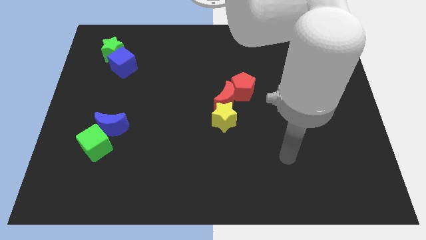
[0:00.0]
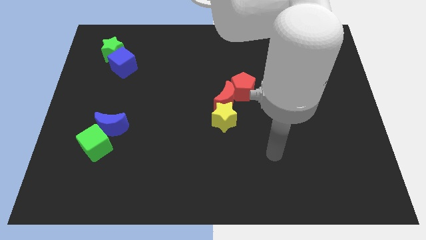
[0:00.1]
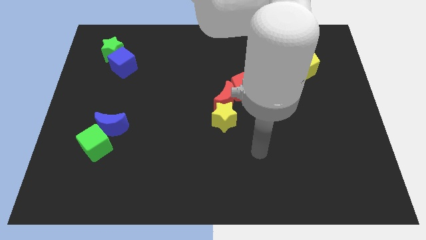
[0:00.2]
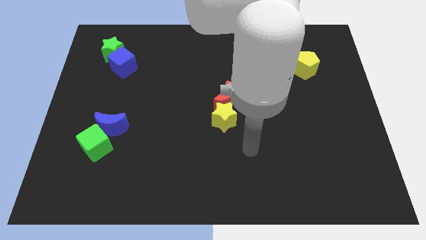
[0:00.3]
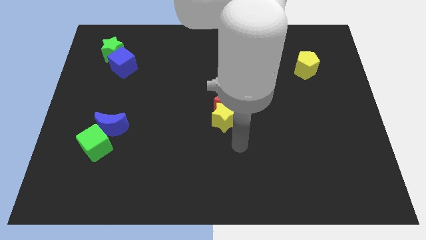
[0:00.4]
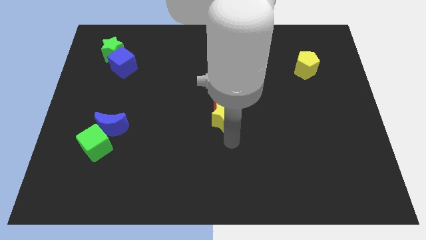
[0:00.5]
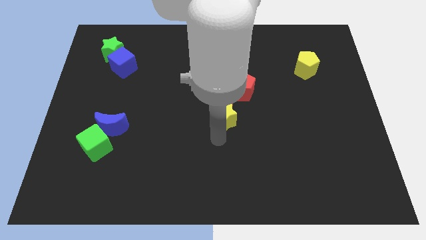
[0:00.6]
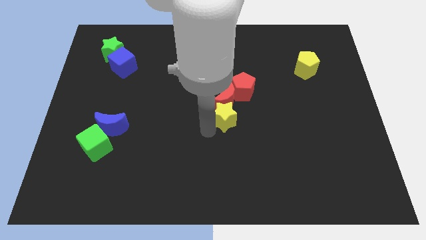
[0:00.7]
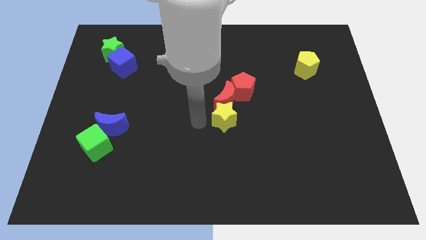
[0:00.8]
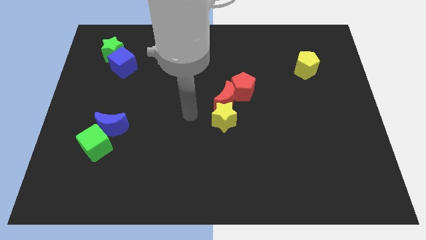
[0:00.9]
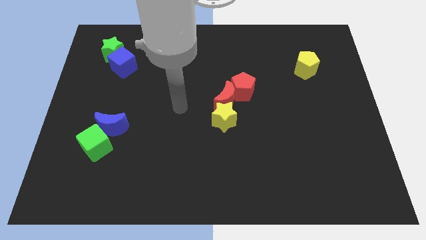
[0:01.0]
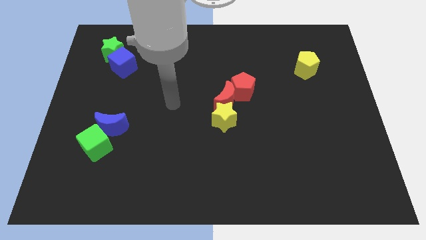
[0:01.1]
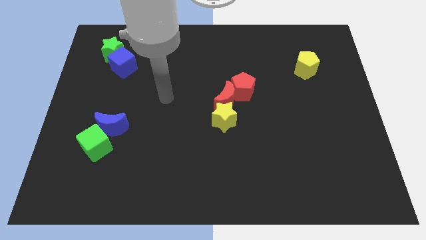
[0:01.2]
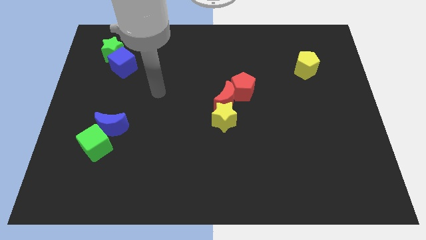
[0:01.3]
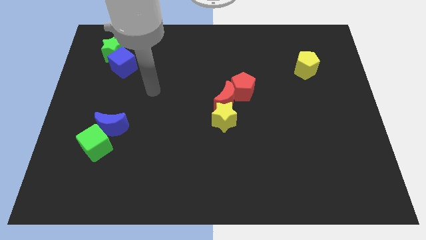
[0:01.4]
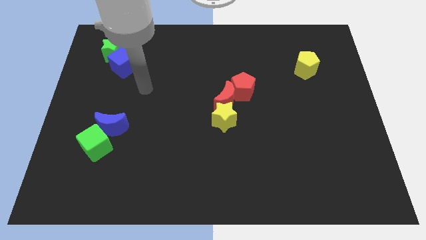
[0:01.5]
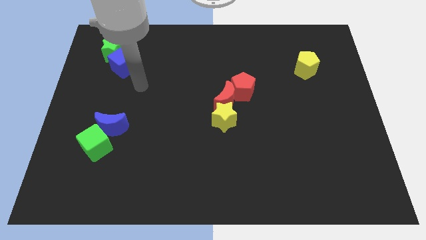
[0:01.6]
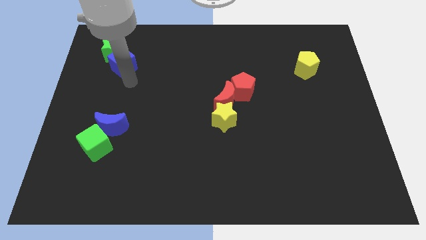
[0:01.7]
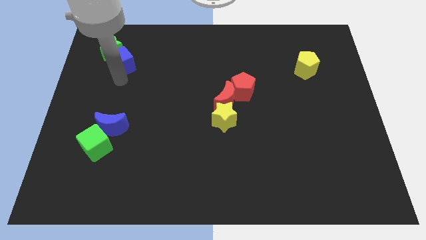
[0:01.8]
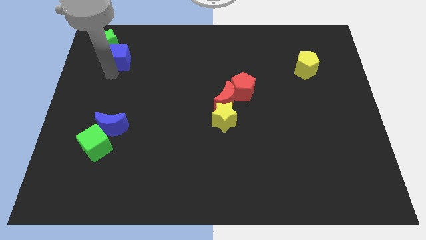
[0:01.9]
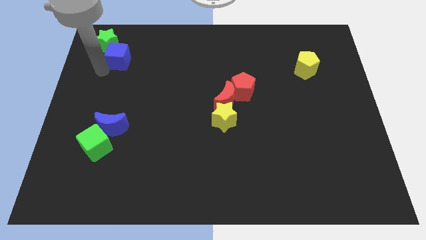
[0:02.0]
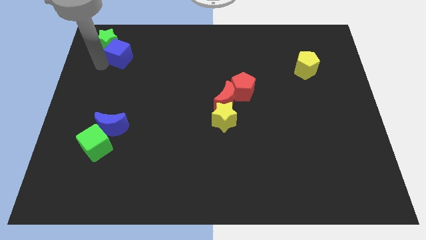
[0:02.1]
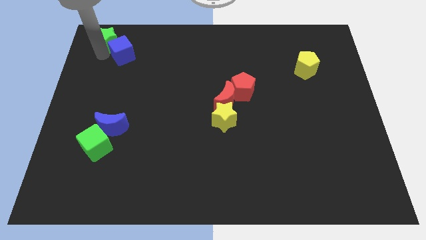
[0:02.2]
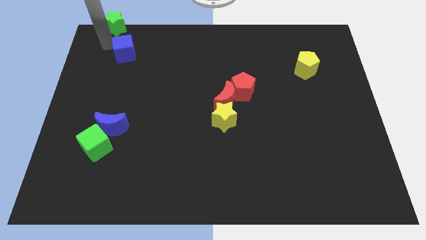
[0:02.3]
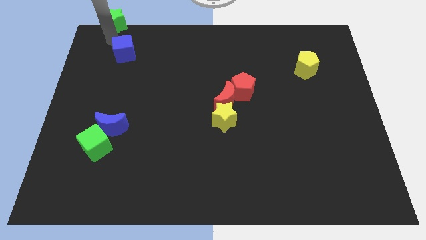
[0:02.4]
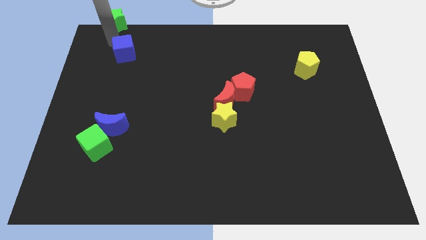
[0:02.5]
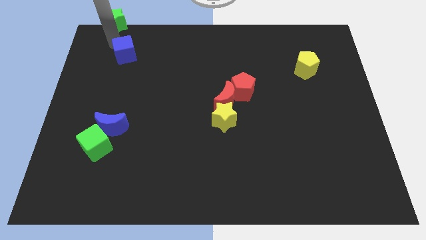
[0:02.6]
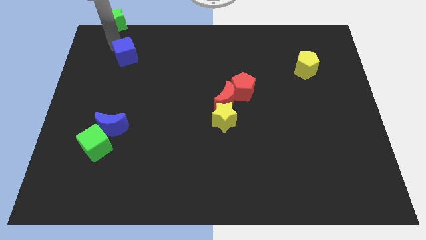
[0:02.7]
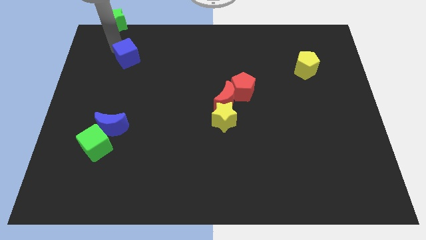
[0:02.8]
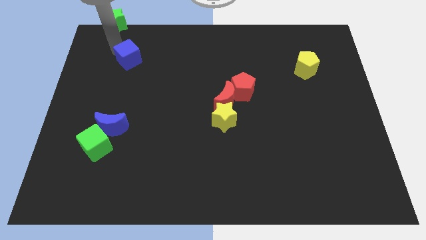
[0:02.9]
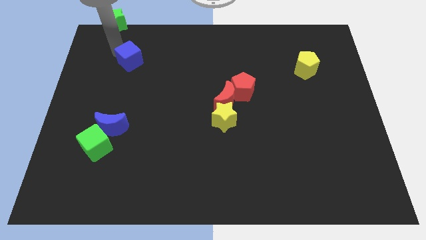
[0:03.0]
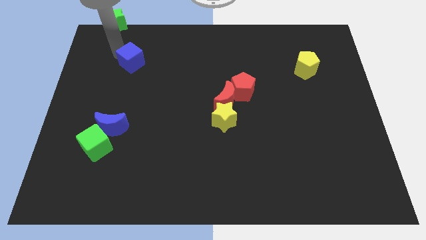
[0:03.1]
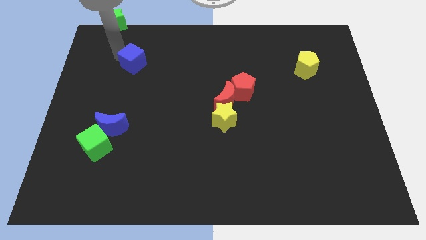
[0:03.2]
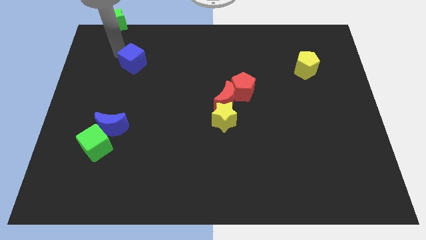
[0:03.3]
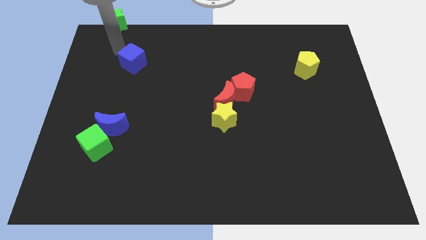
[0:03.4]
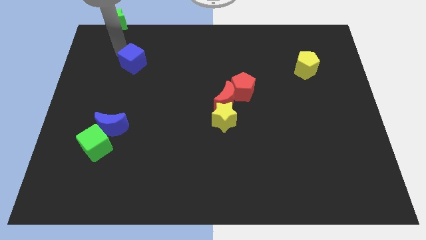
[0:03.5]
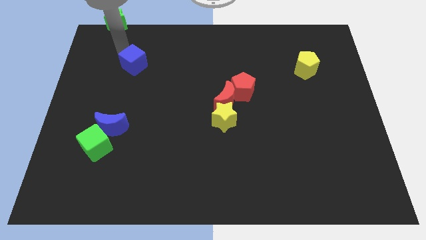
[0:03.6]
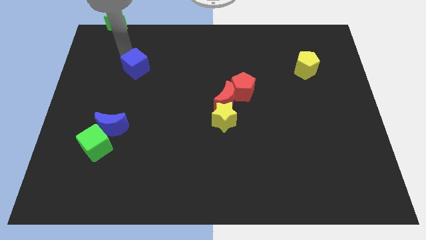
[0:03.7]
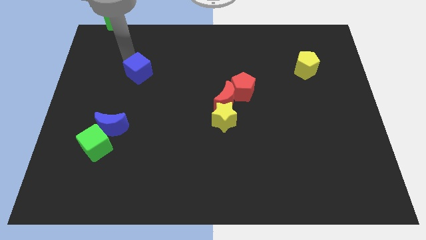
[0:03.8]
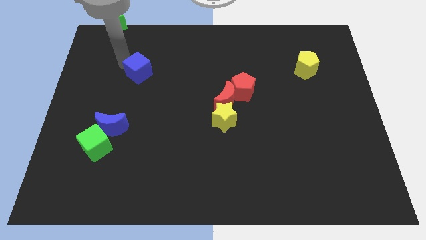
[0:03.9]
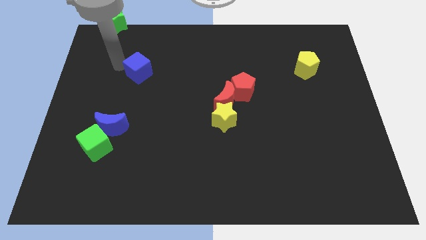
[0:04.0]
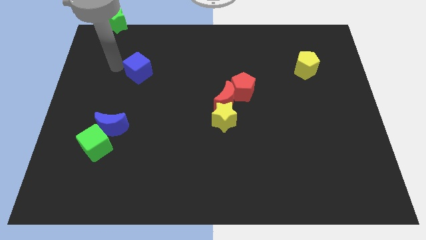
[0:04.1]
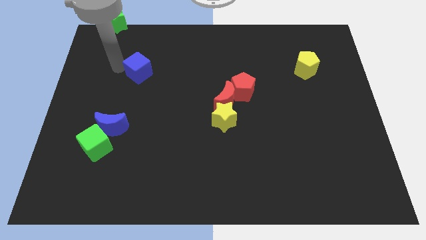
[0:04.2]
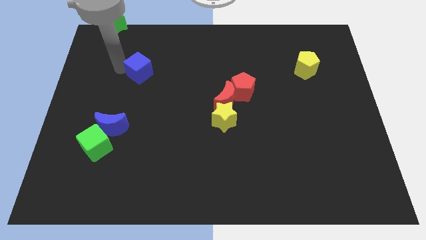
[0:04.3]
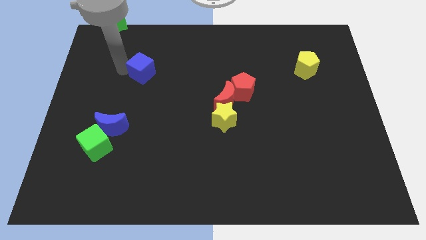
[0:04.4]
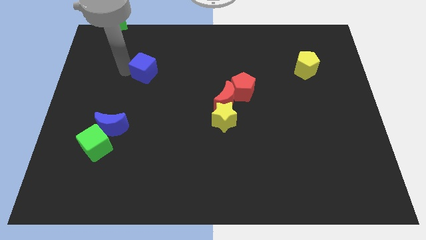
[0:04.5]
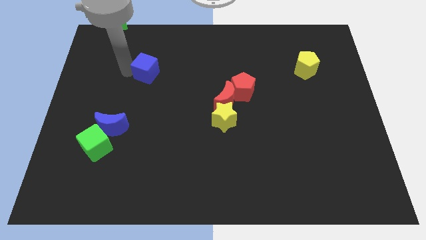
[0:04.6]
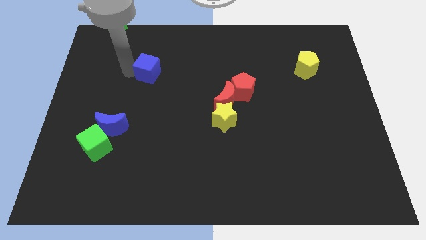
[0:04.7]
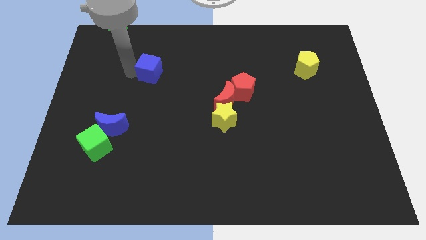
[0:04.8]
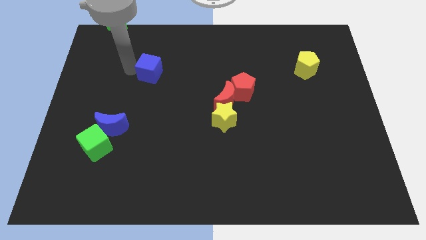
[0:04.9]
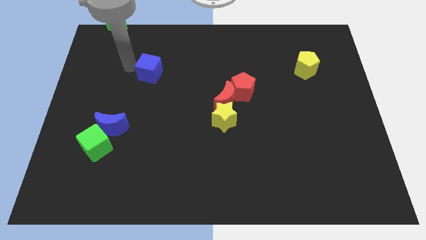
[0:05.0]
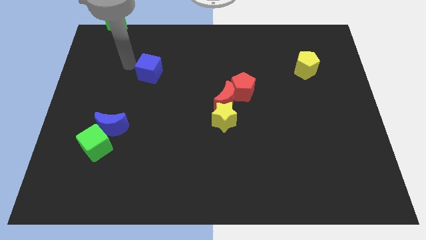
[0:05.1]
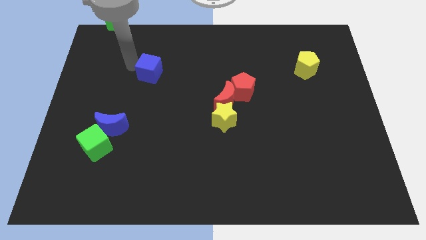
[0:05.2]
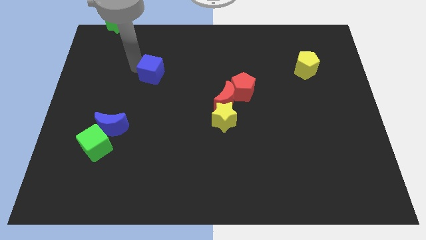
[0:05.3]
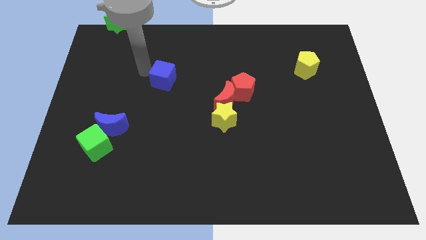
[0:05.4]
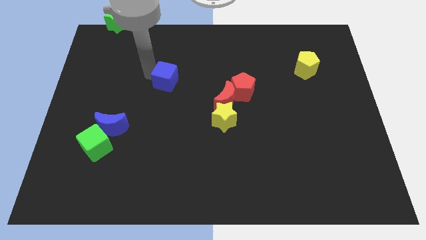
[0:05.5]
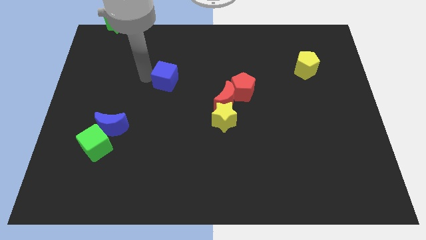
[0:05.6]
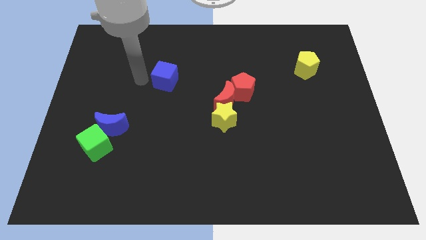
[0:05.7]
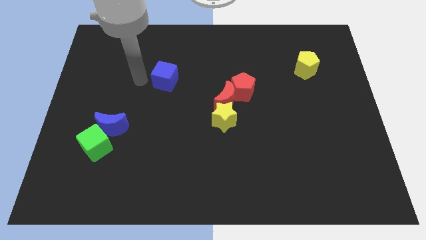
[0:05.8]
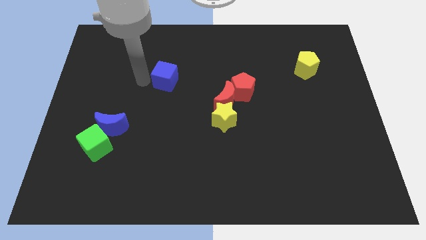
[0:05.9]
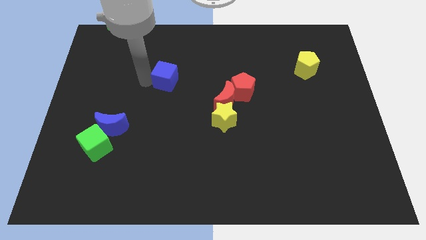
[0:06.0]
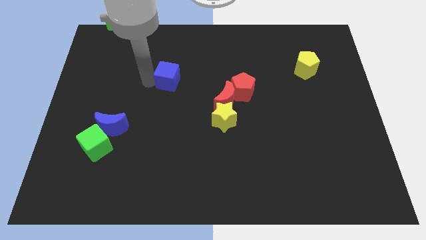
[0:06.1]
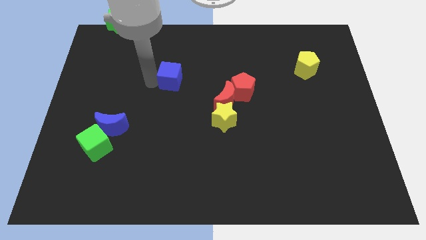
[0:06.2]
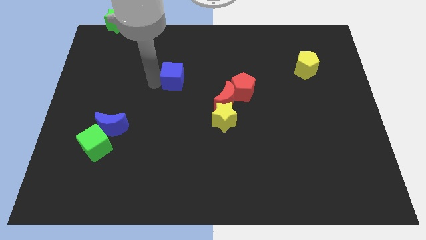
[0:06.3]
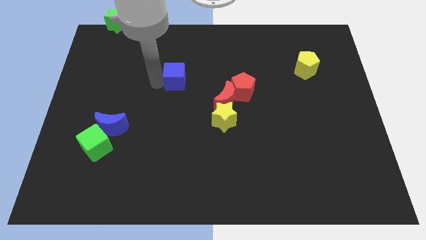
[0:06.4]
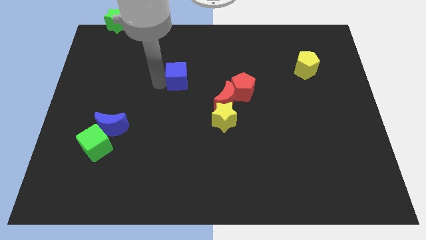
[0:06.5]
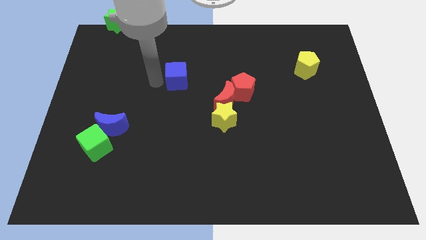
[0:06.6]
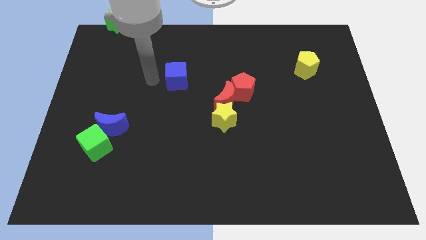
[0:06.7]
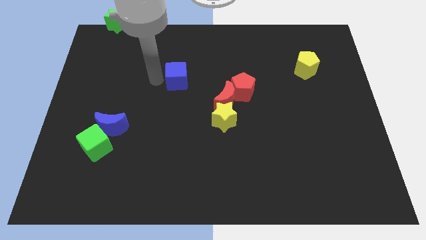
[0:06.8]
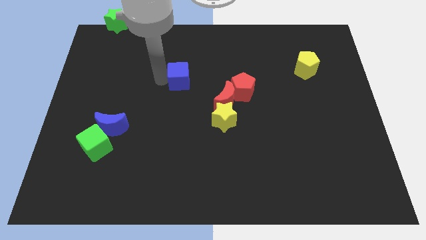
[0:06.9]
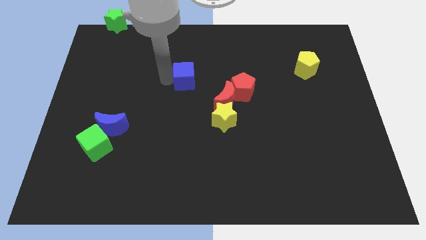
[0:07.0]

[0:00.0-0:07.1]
push the blue cube to the top left of the red moon
